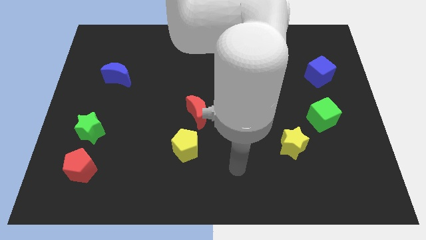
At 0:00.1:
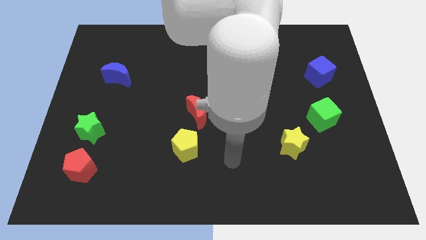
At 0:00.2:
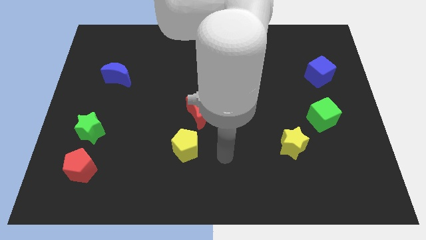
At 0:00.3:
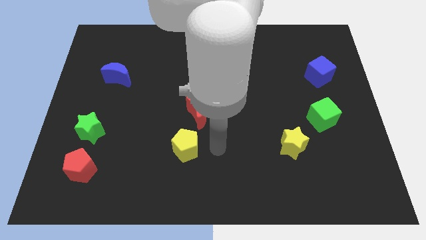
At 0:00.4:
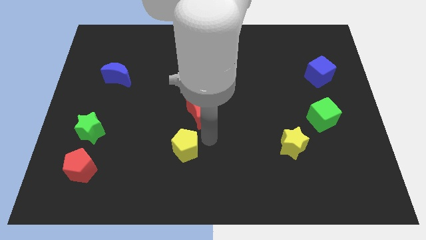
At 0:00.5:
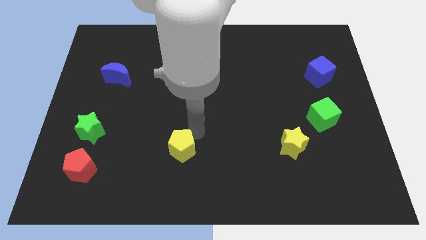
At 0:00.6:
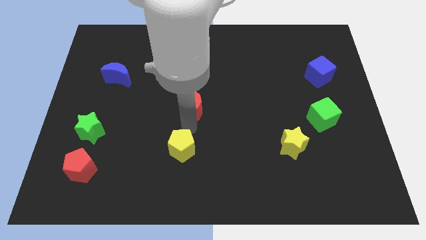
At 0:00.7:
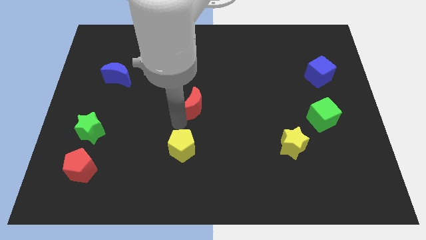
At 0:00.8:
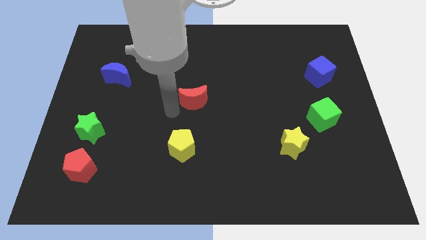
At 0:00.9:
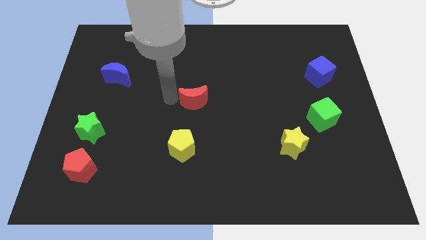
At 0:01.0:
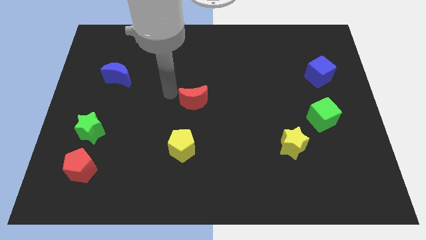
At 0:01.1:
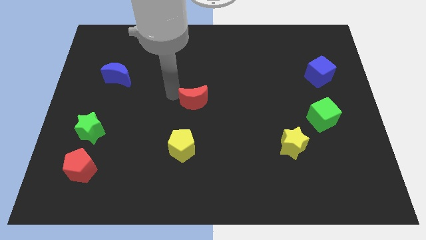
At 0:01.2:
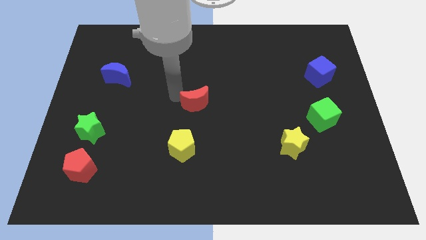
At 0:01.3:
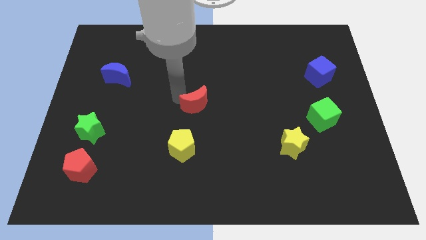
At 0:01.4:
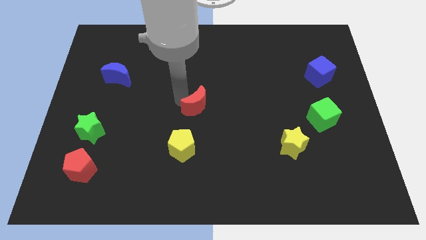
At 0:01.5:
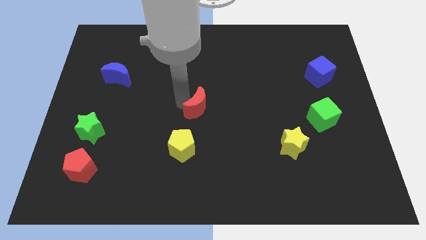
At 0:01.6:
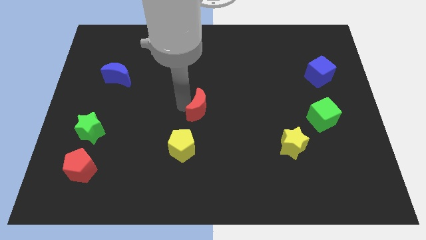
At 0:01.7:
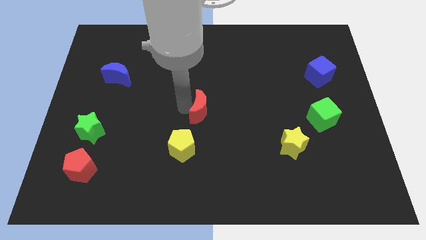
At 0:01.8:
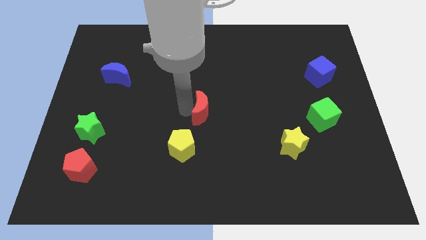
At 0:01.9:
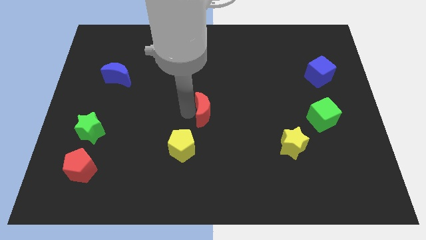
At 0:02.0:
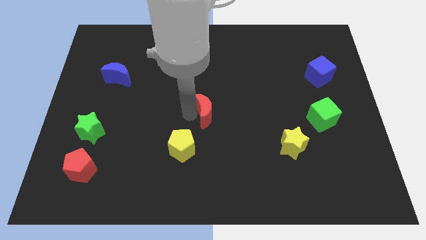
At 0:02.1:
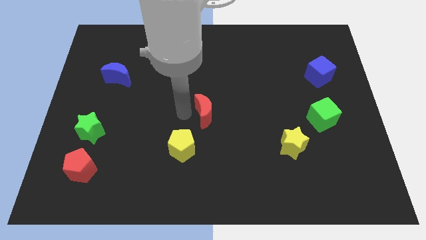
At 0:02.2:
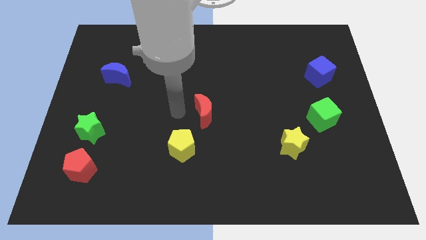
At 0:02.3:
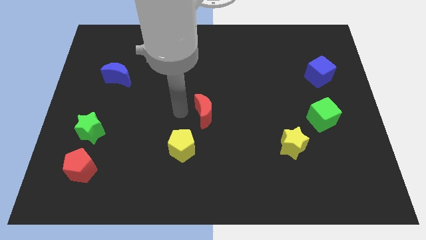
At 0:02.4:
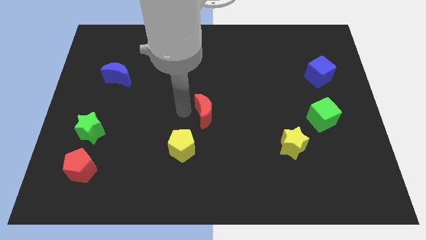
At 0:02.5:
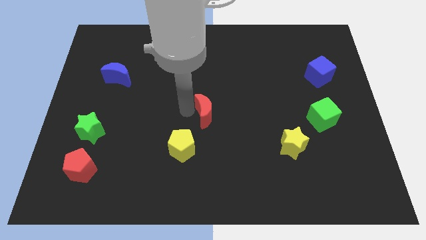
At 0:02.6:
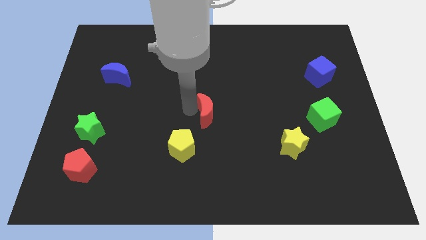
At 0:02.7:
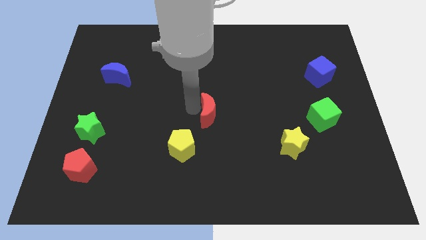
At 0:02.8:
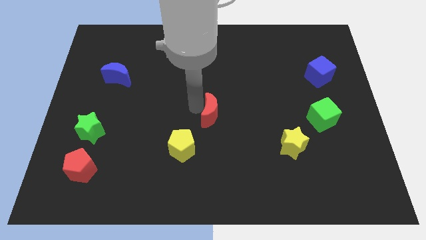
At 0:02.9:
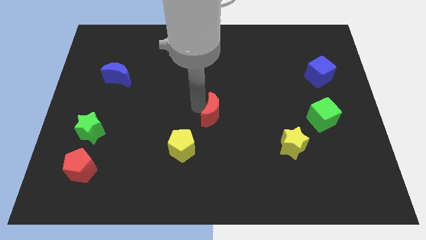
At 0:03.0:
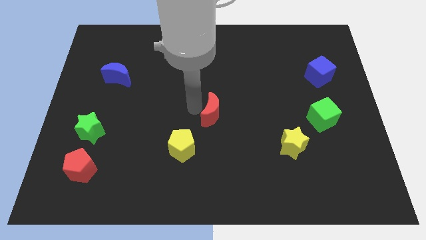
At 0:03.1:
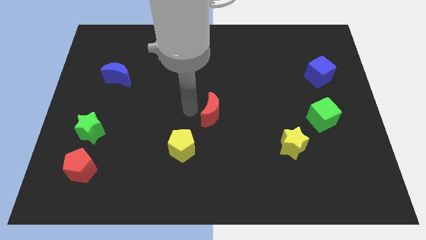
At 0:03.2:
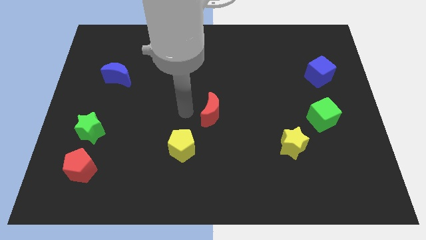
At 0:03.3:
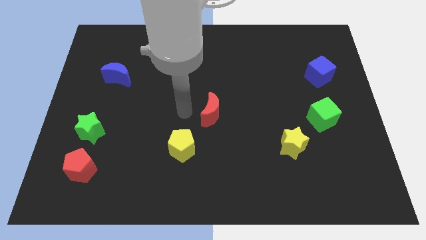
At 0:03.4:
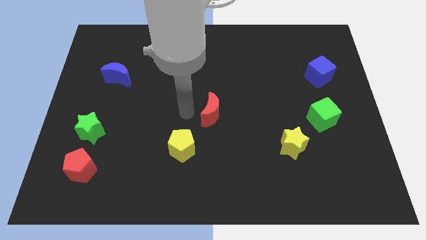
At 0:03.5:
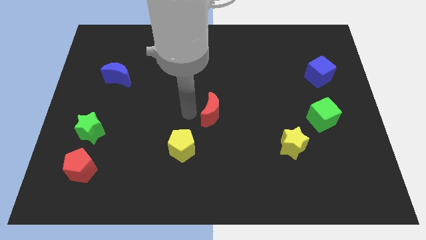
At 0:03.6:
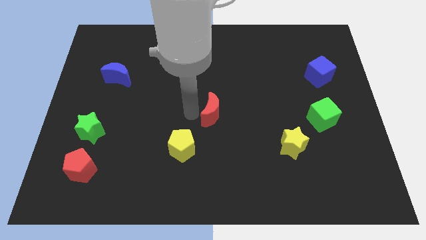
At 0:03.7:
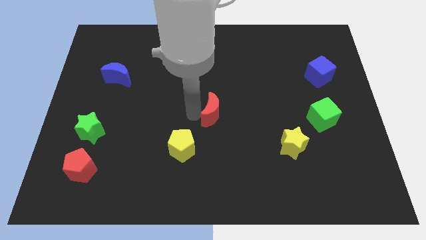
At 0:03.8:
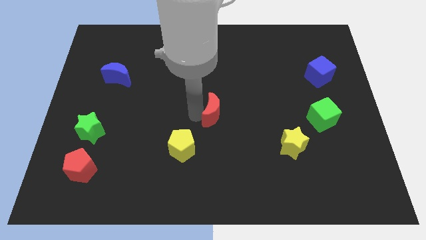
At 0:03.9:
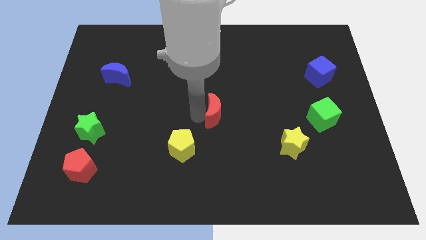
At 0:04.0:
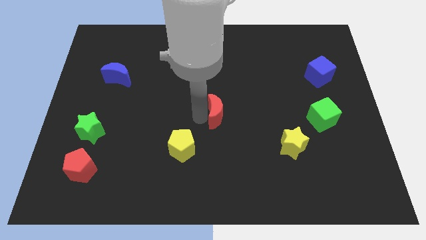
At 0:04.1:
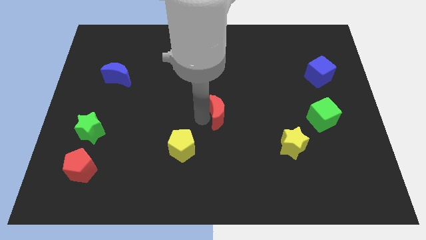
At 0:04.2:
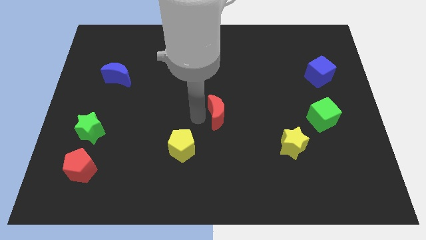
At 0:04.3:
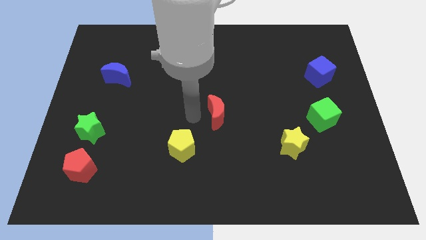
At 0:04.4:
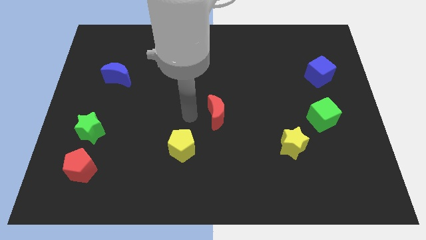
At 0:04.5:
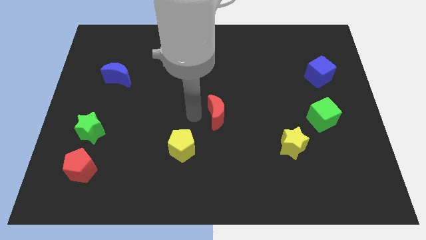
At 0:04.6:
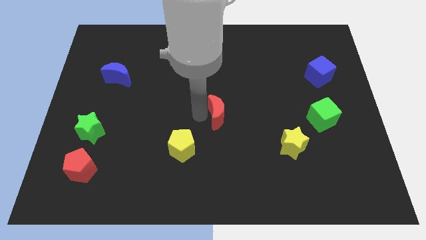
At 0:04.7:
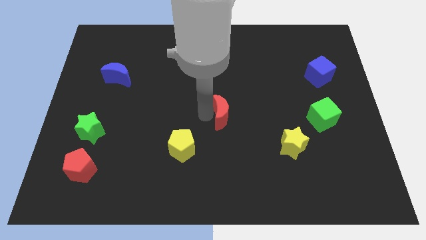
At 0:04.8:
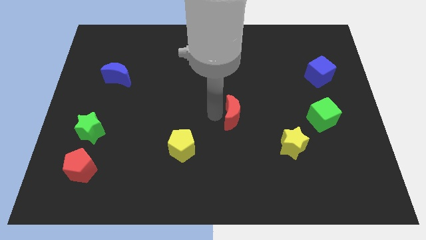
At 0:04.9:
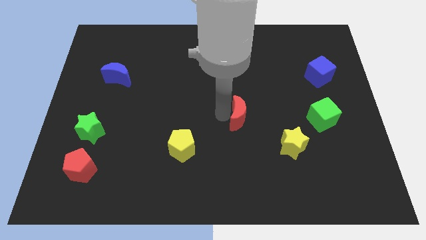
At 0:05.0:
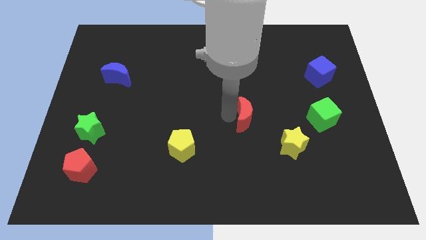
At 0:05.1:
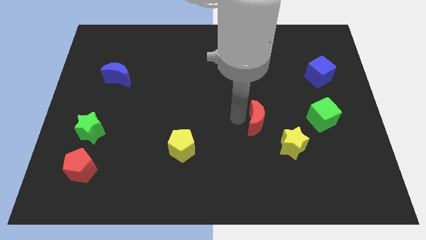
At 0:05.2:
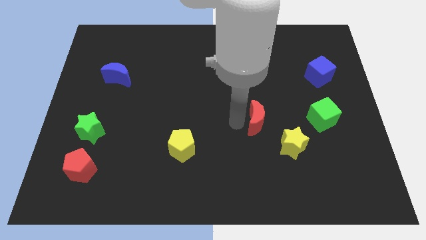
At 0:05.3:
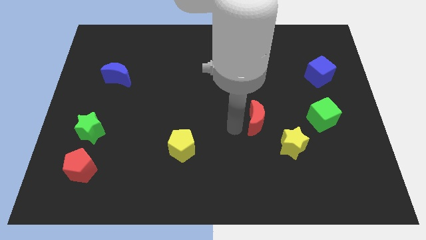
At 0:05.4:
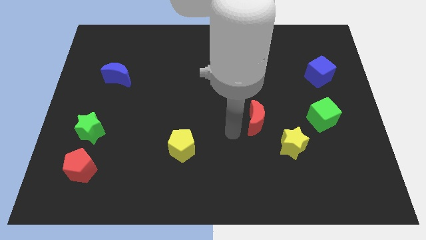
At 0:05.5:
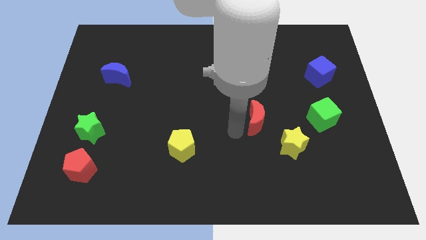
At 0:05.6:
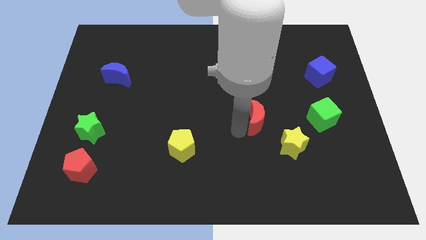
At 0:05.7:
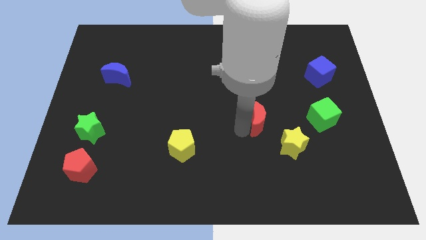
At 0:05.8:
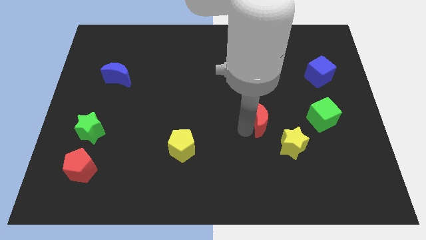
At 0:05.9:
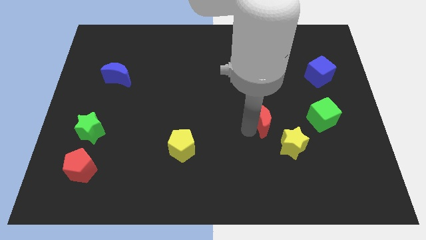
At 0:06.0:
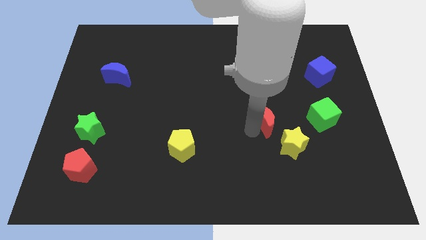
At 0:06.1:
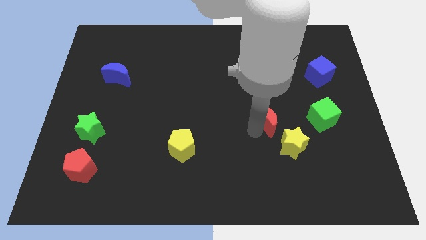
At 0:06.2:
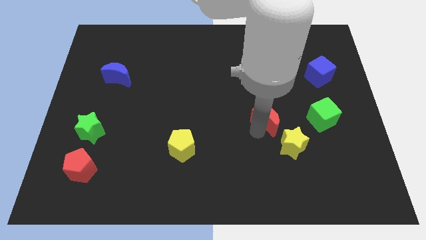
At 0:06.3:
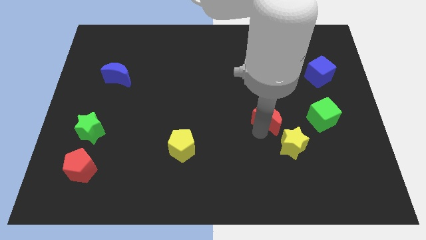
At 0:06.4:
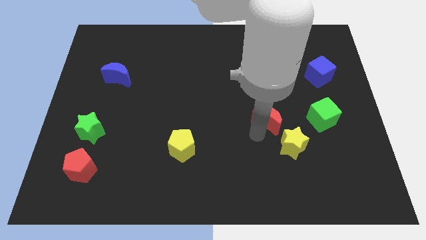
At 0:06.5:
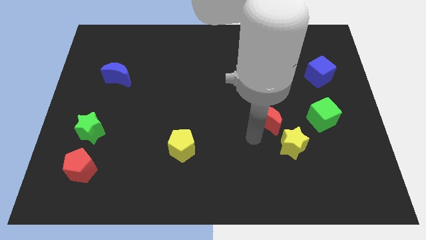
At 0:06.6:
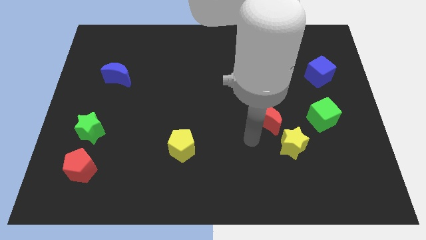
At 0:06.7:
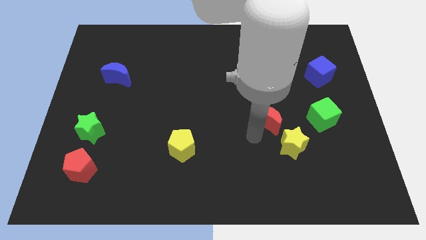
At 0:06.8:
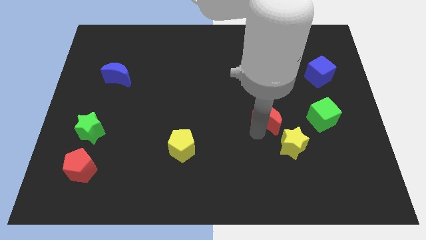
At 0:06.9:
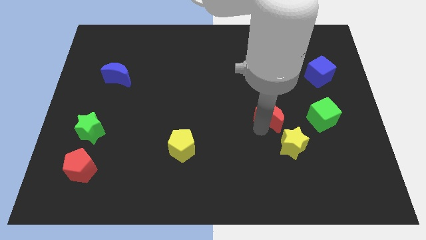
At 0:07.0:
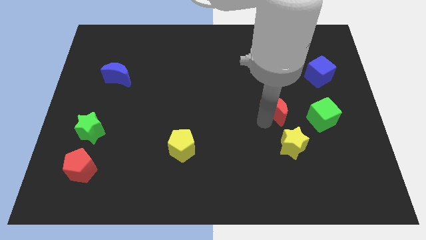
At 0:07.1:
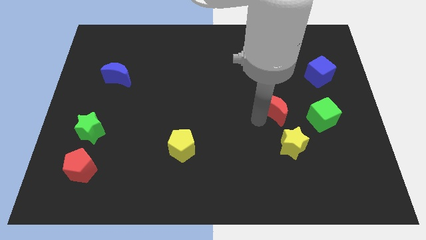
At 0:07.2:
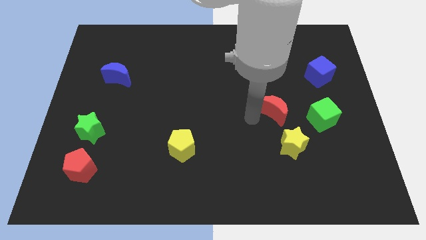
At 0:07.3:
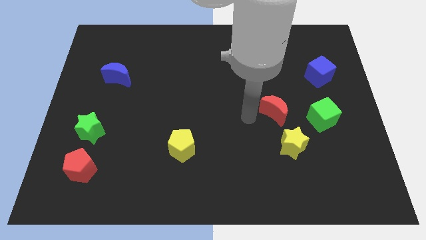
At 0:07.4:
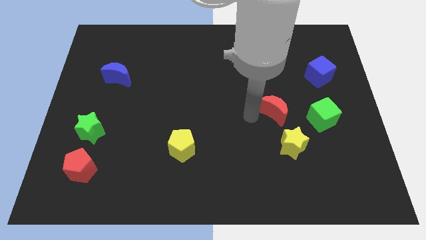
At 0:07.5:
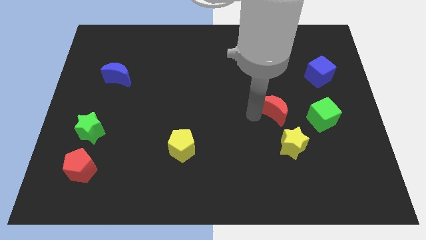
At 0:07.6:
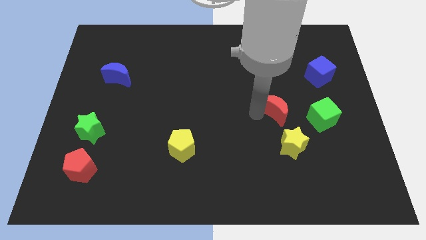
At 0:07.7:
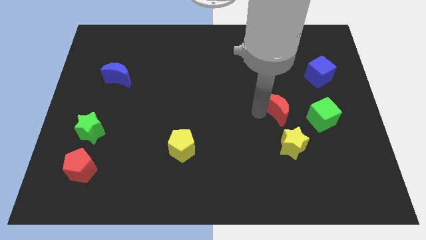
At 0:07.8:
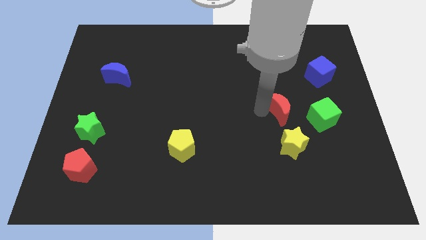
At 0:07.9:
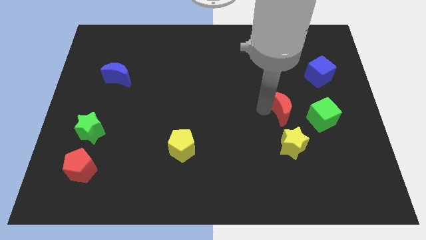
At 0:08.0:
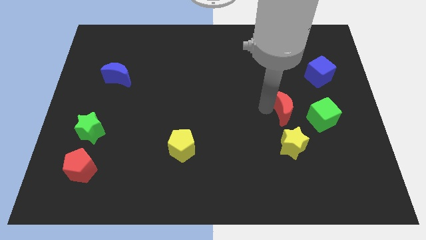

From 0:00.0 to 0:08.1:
slide the red moon to the right

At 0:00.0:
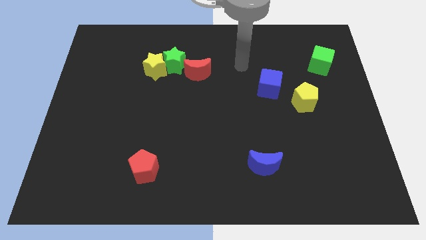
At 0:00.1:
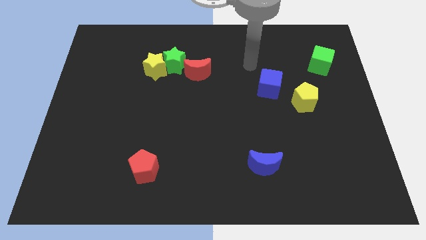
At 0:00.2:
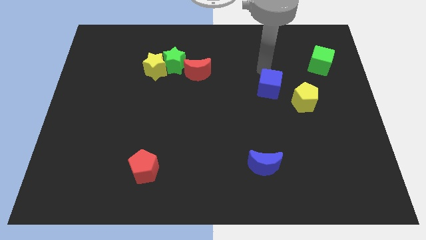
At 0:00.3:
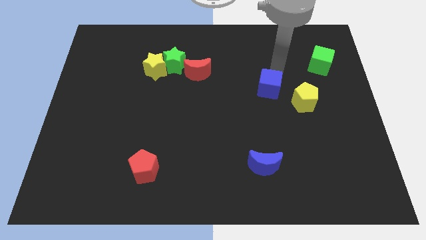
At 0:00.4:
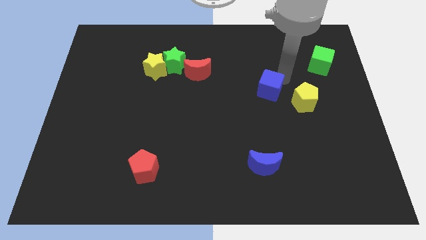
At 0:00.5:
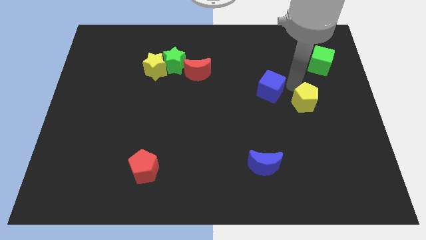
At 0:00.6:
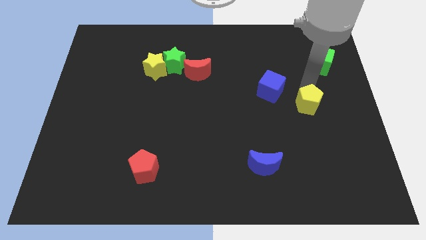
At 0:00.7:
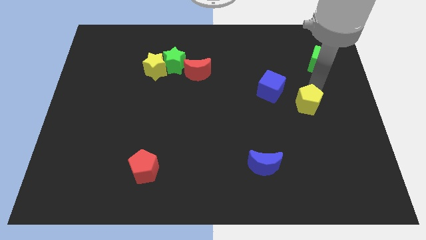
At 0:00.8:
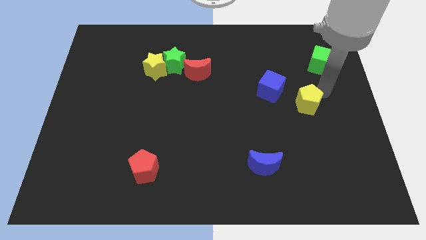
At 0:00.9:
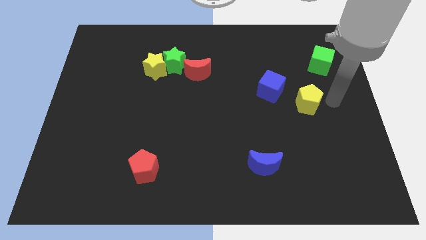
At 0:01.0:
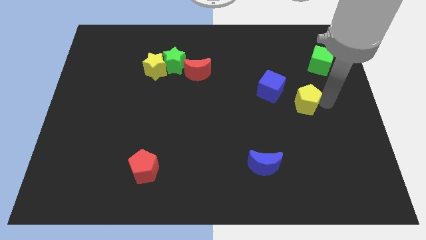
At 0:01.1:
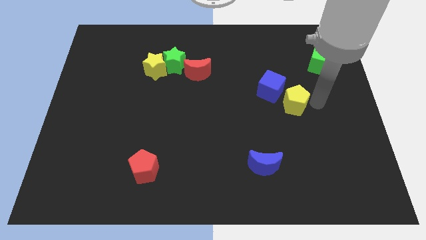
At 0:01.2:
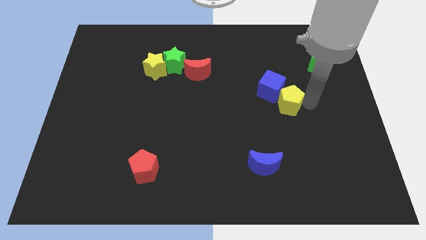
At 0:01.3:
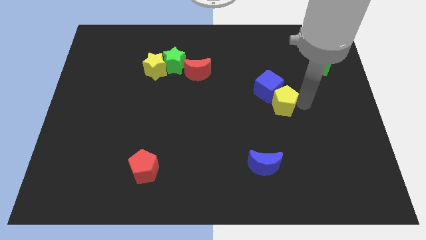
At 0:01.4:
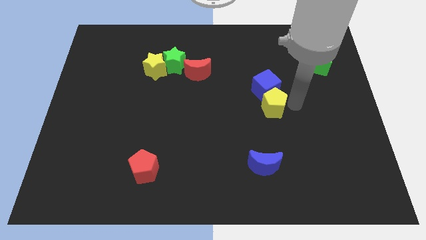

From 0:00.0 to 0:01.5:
push the yellow pentagon a little bit left
